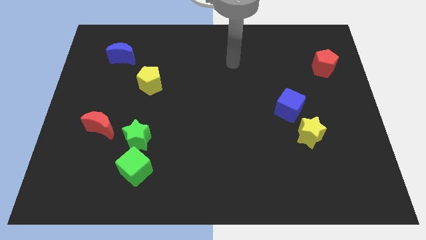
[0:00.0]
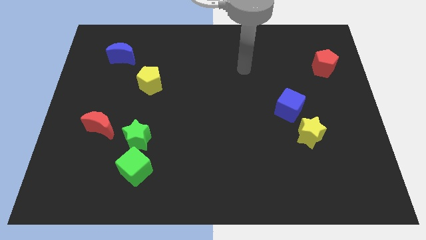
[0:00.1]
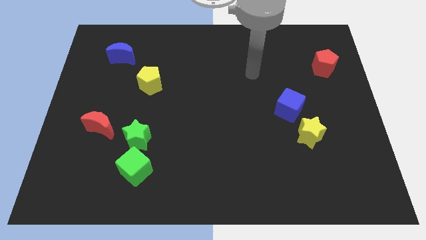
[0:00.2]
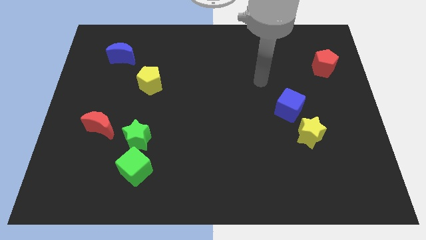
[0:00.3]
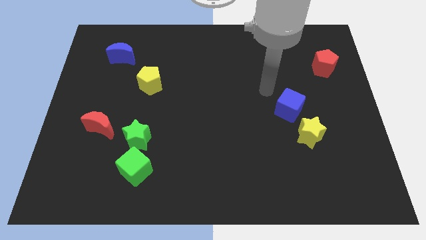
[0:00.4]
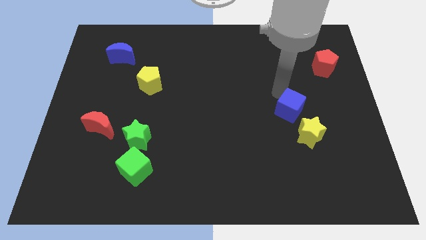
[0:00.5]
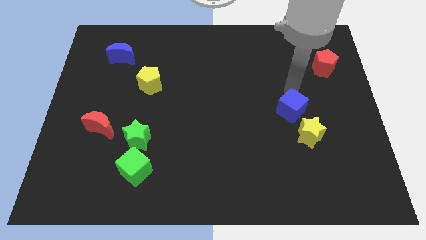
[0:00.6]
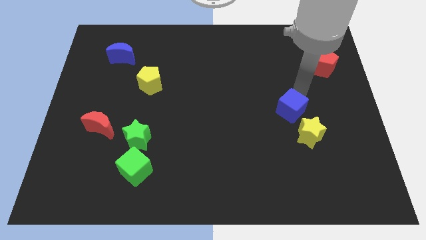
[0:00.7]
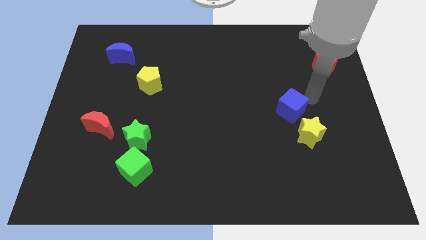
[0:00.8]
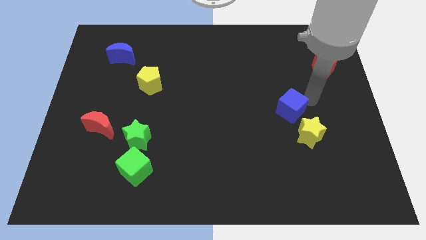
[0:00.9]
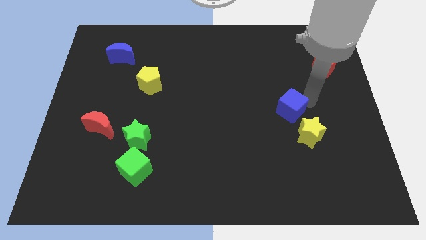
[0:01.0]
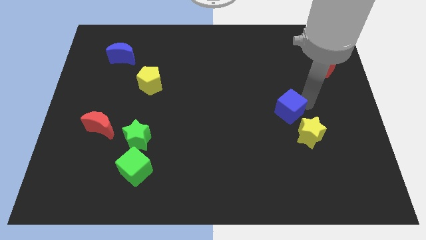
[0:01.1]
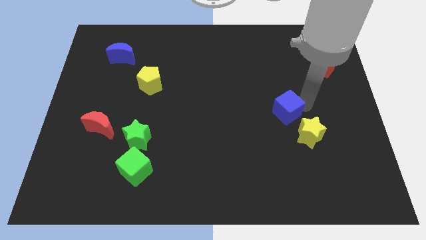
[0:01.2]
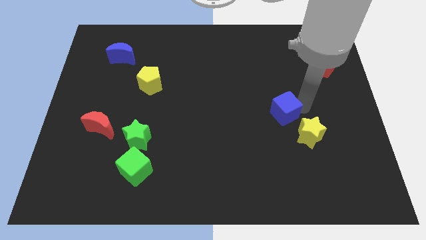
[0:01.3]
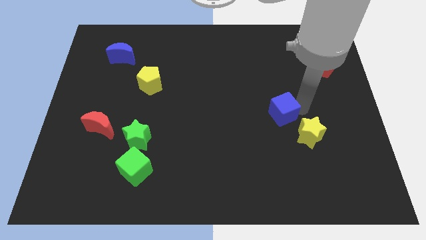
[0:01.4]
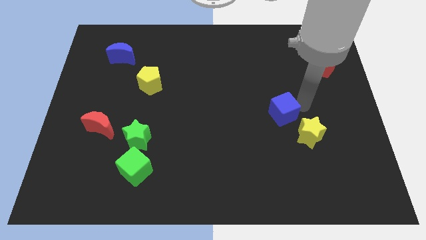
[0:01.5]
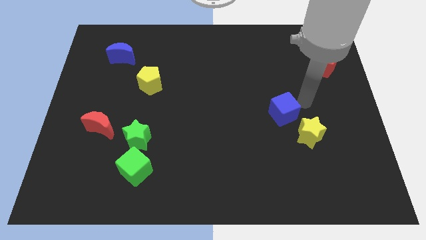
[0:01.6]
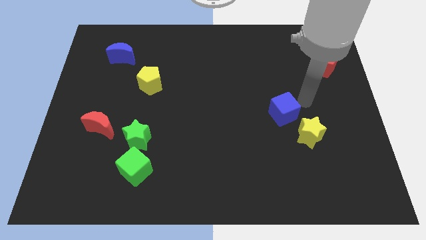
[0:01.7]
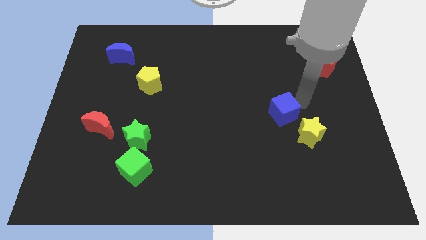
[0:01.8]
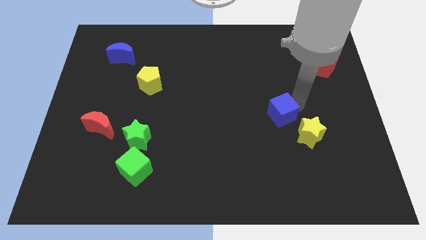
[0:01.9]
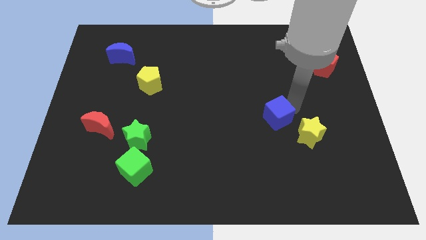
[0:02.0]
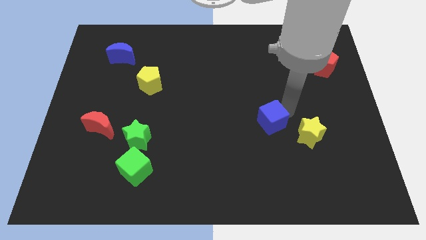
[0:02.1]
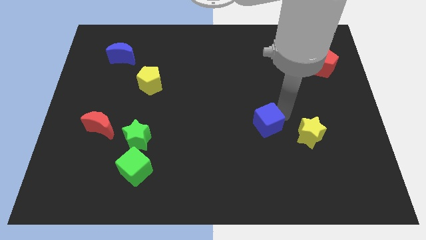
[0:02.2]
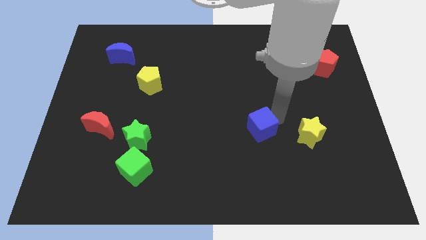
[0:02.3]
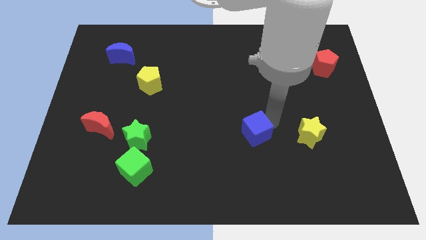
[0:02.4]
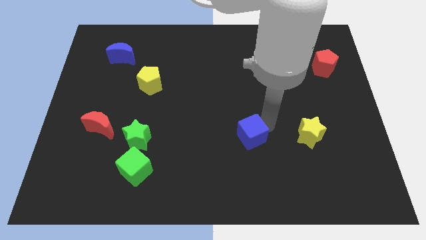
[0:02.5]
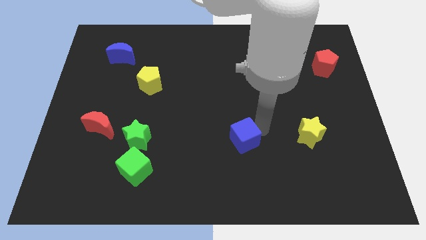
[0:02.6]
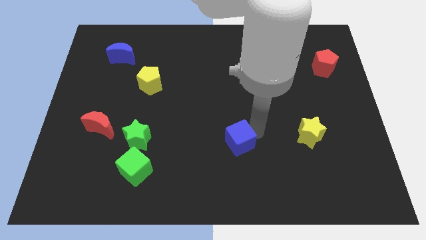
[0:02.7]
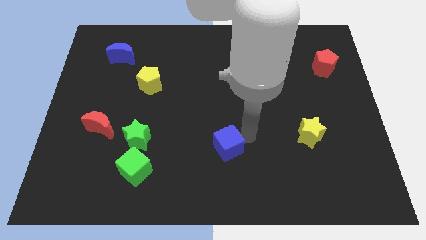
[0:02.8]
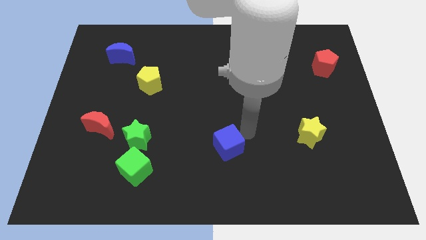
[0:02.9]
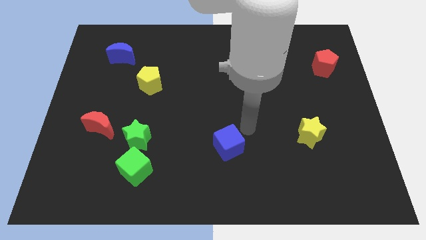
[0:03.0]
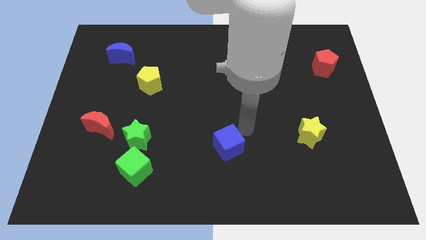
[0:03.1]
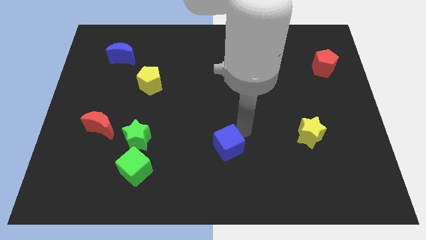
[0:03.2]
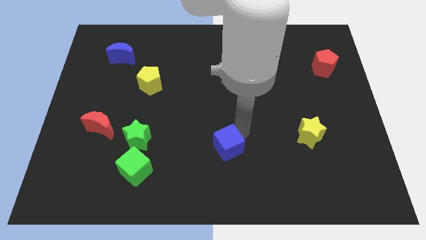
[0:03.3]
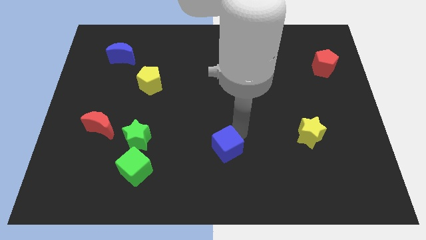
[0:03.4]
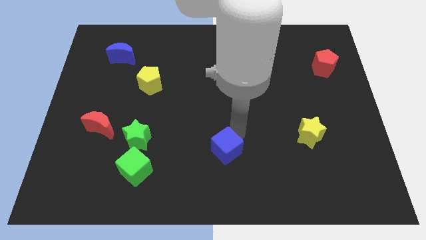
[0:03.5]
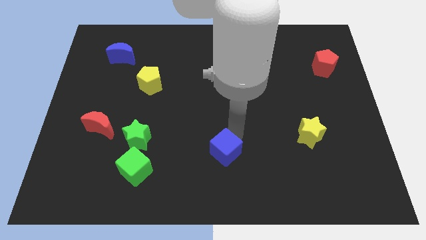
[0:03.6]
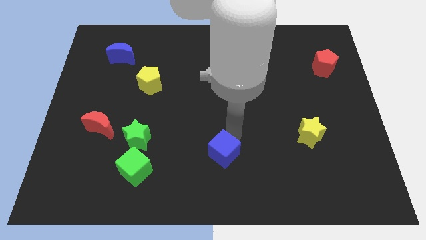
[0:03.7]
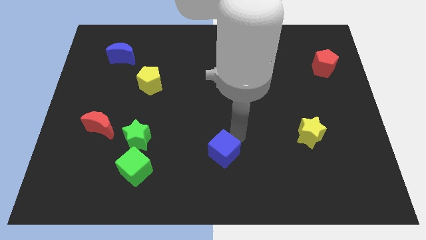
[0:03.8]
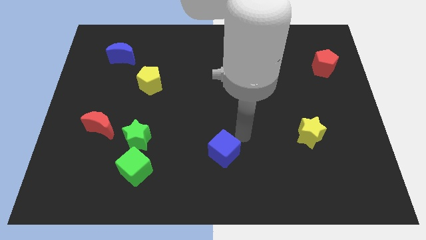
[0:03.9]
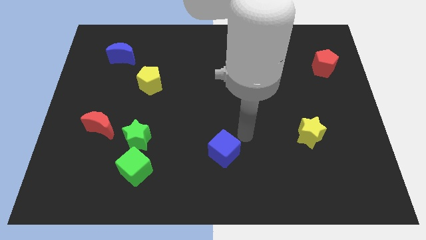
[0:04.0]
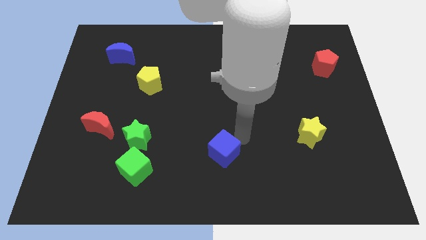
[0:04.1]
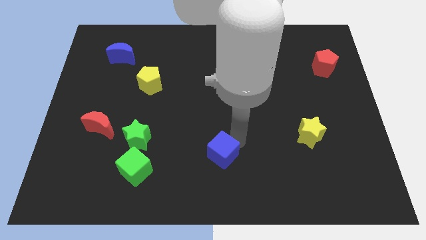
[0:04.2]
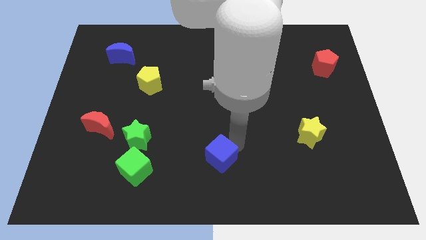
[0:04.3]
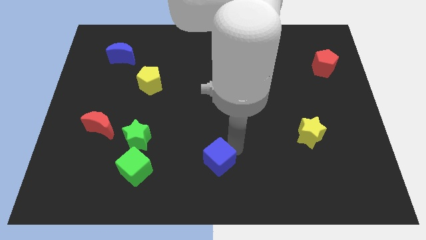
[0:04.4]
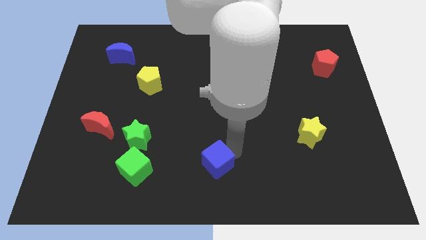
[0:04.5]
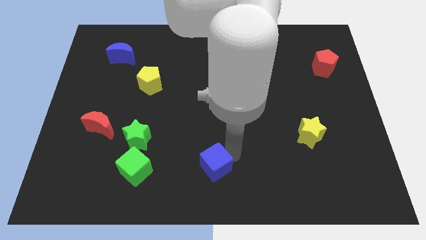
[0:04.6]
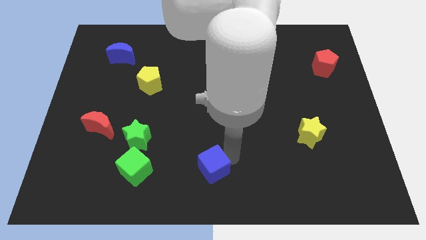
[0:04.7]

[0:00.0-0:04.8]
push the blue cube to the right of the green cube

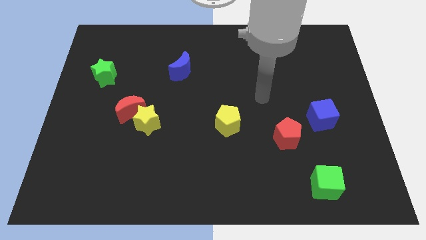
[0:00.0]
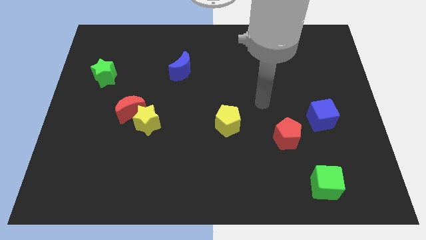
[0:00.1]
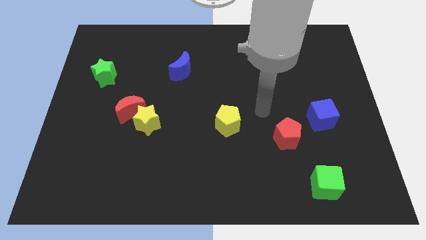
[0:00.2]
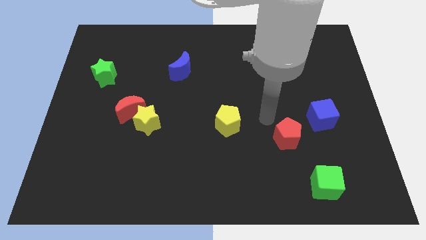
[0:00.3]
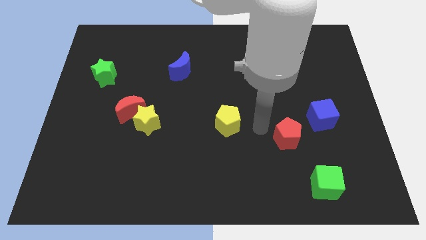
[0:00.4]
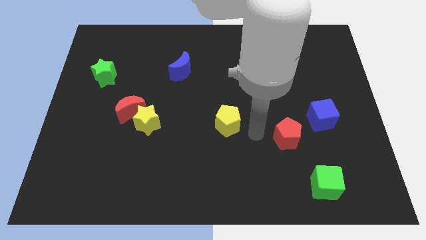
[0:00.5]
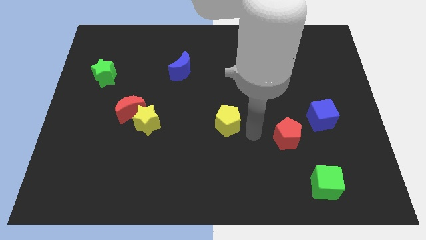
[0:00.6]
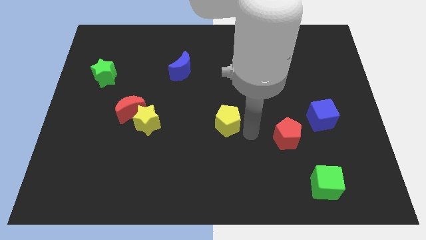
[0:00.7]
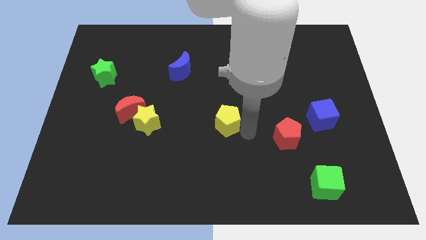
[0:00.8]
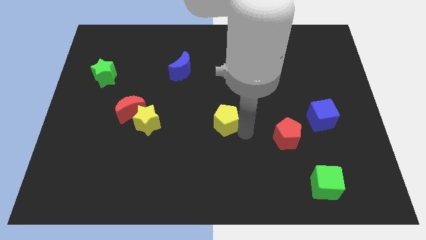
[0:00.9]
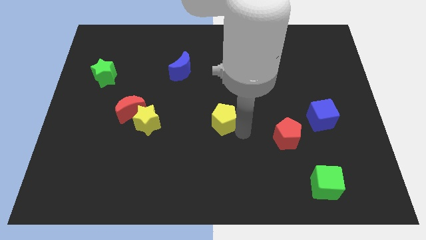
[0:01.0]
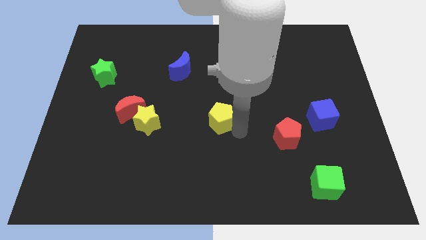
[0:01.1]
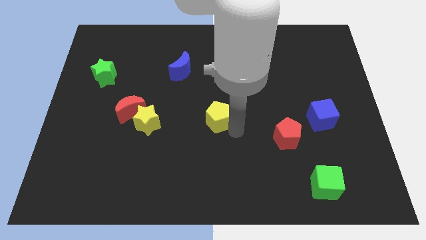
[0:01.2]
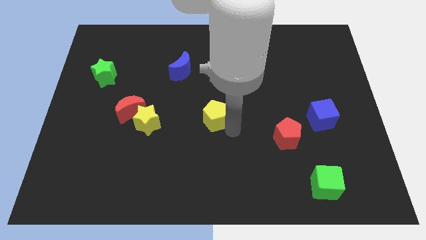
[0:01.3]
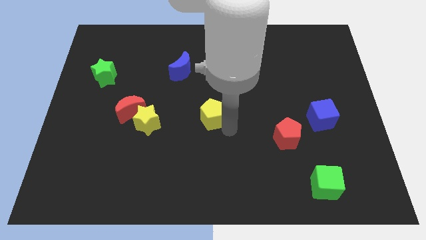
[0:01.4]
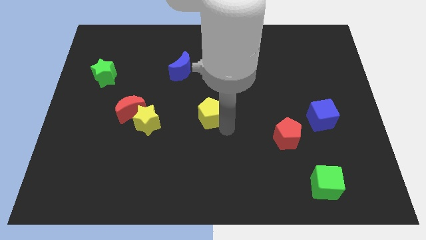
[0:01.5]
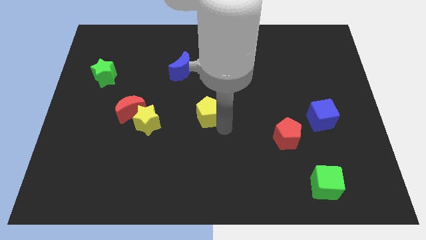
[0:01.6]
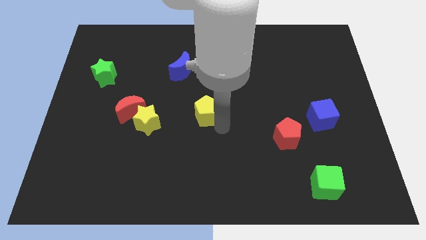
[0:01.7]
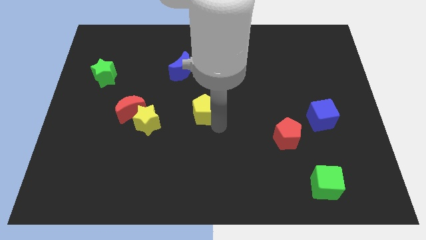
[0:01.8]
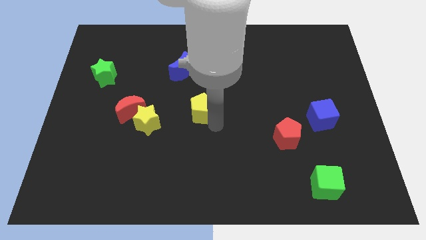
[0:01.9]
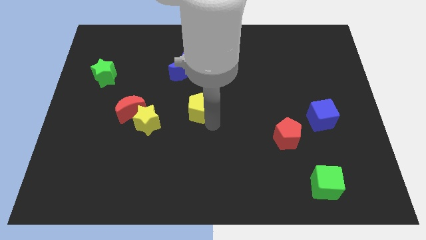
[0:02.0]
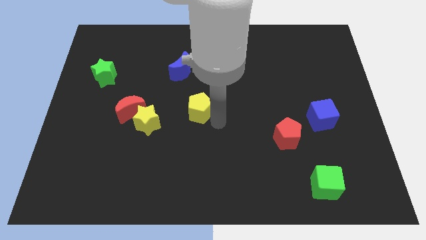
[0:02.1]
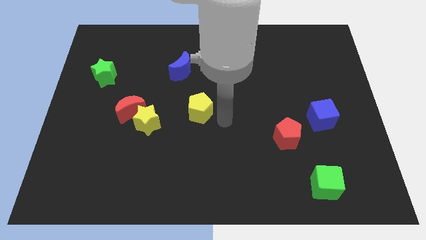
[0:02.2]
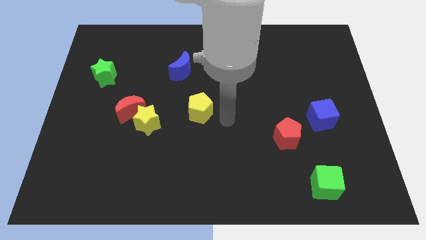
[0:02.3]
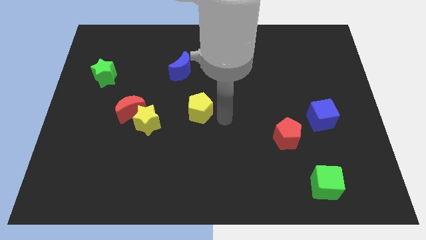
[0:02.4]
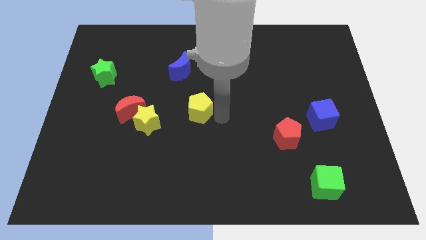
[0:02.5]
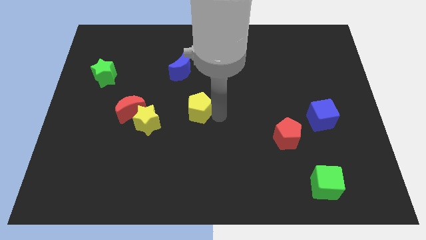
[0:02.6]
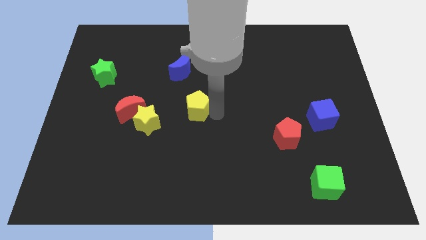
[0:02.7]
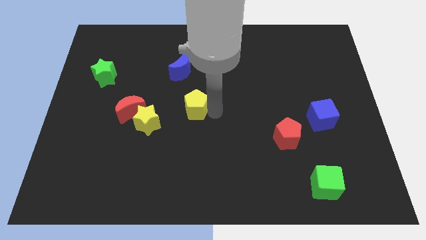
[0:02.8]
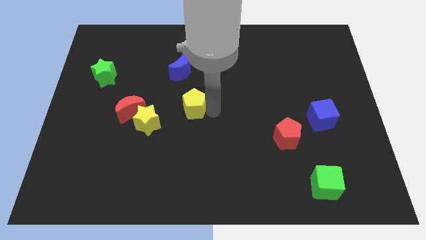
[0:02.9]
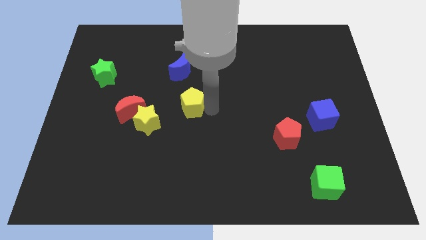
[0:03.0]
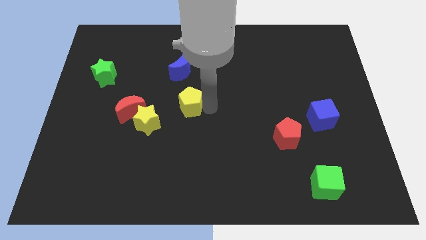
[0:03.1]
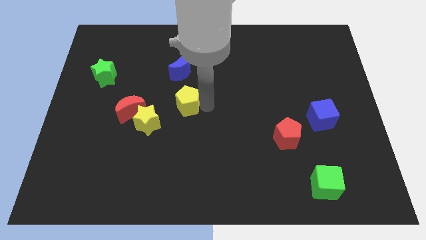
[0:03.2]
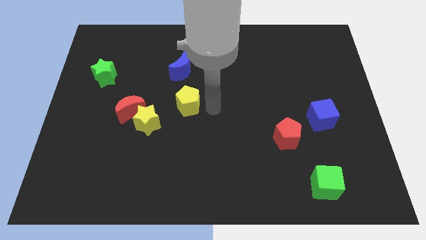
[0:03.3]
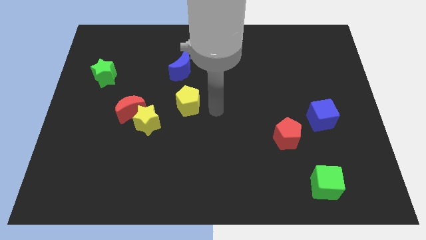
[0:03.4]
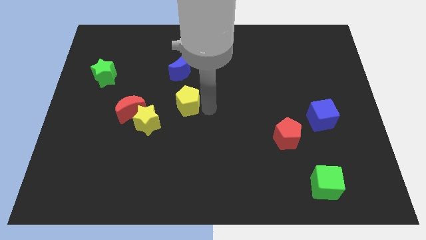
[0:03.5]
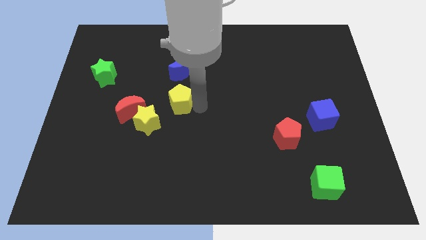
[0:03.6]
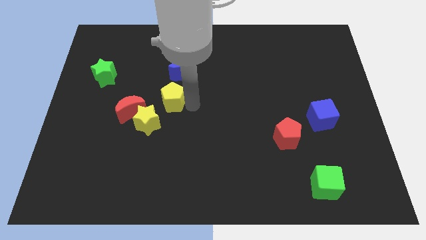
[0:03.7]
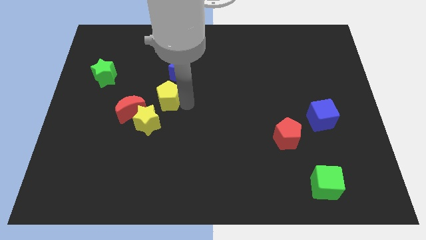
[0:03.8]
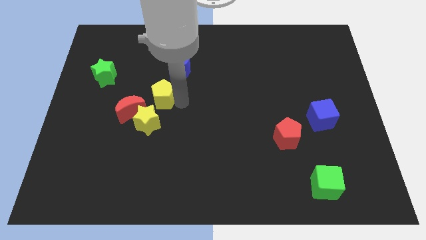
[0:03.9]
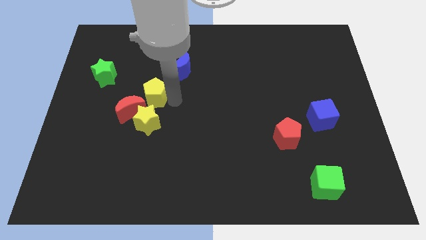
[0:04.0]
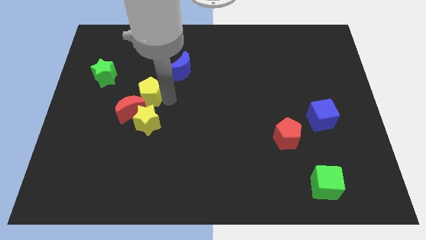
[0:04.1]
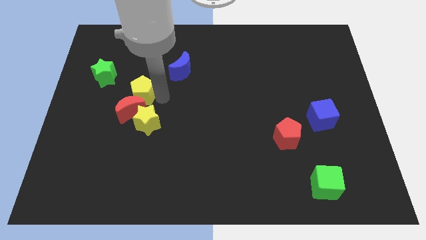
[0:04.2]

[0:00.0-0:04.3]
push the yellow pentagon to the bottom right side of the green star
